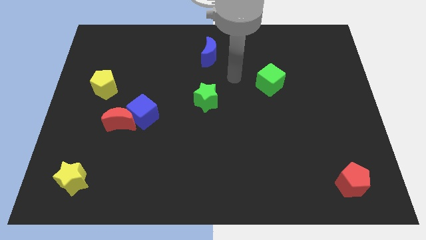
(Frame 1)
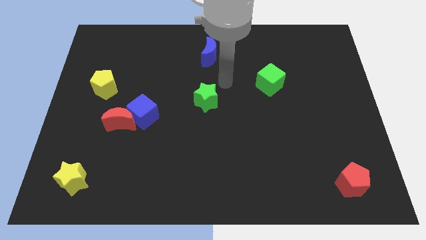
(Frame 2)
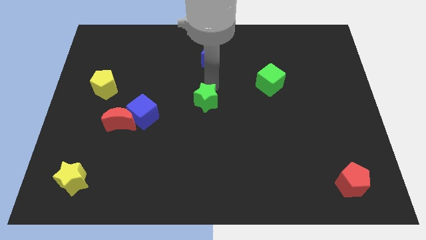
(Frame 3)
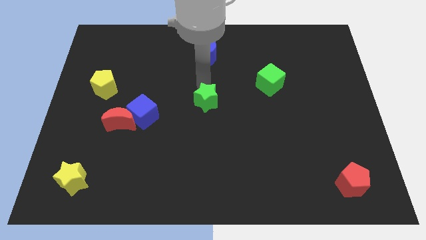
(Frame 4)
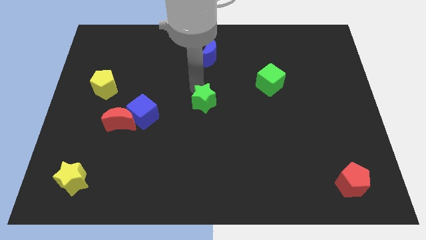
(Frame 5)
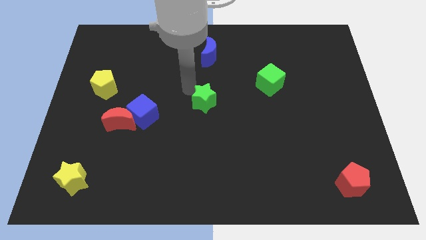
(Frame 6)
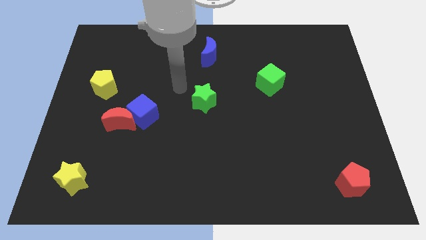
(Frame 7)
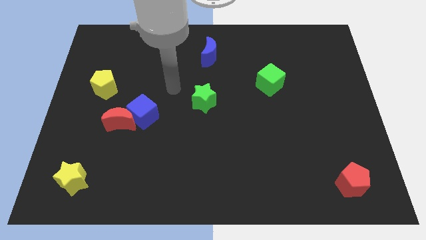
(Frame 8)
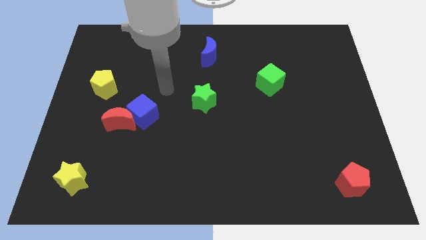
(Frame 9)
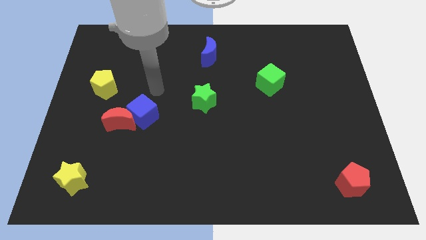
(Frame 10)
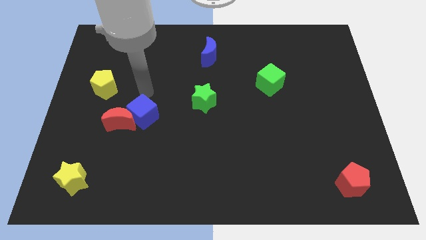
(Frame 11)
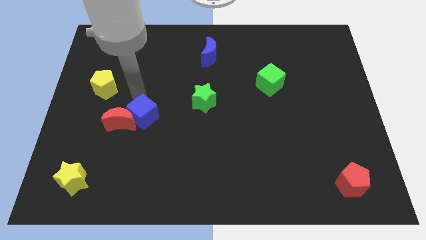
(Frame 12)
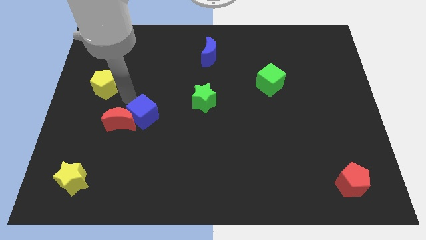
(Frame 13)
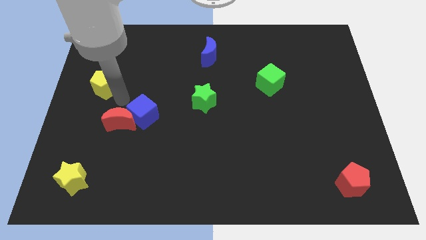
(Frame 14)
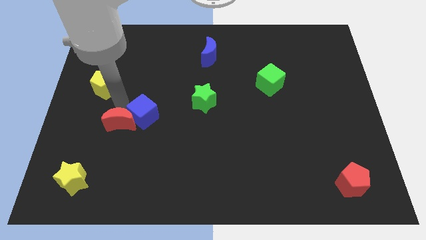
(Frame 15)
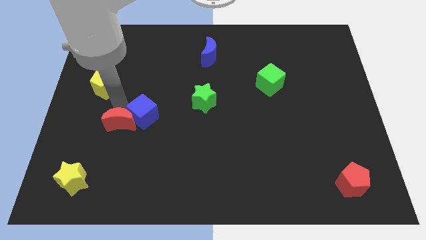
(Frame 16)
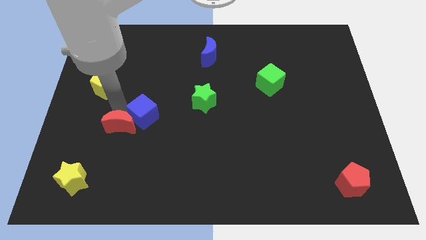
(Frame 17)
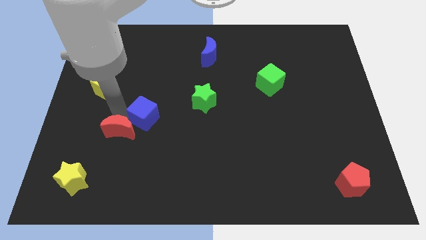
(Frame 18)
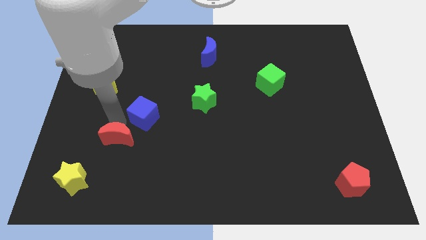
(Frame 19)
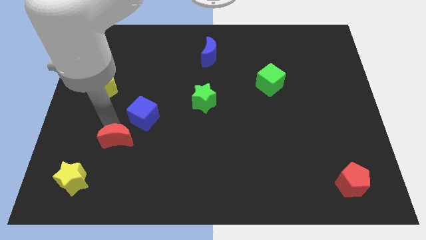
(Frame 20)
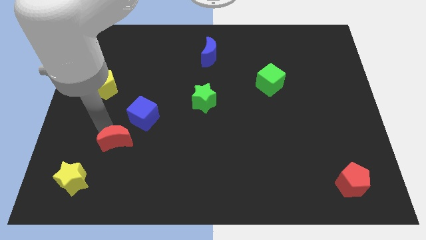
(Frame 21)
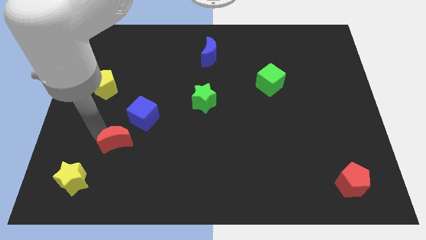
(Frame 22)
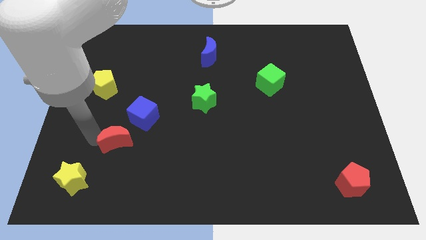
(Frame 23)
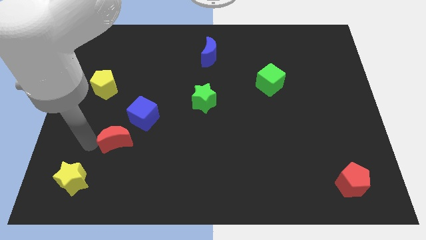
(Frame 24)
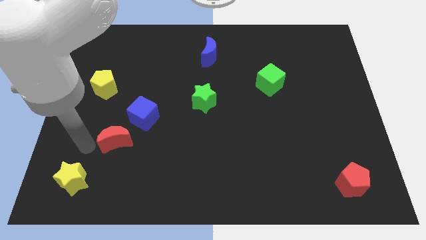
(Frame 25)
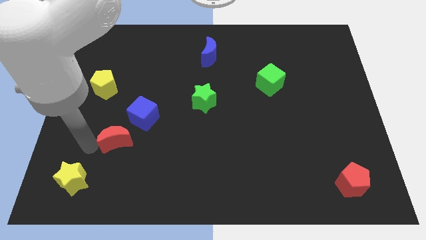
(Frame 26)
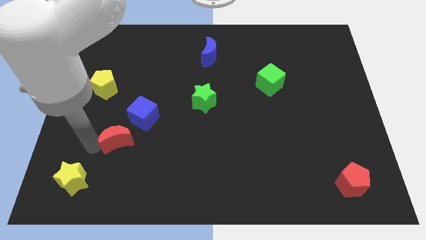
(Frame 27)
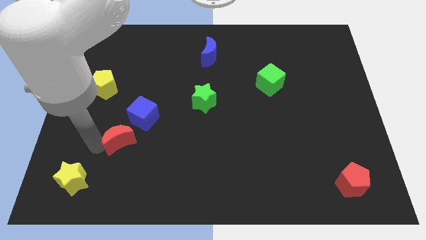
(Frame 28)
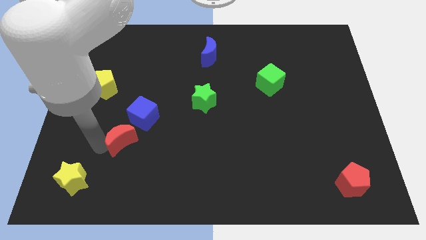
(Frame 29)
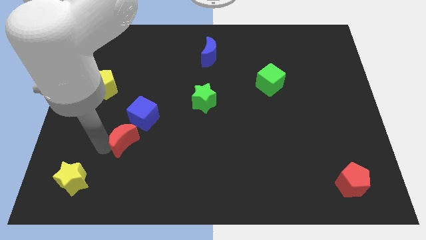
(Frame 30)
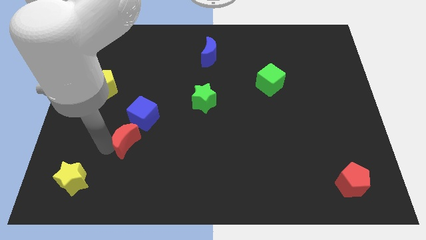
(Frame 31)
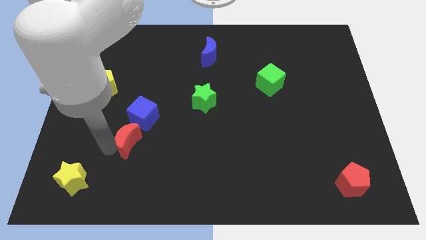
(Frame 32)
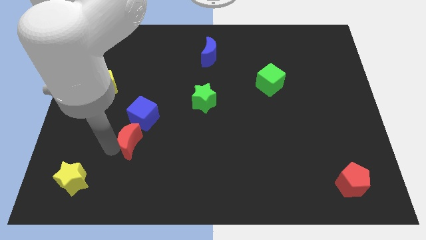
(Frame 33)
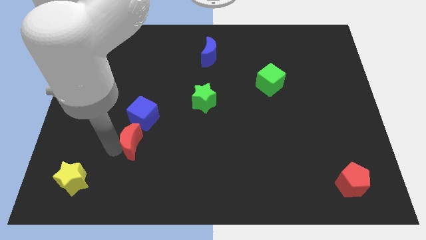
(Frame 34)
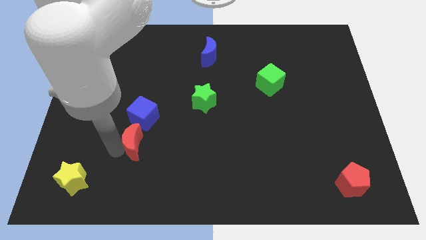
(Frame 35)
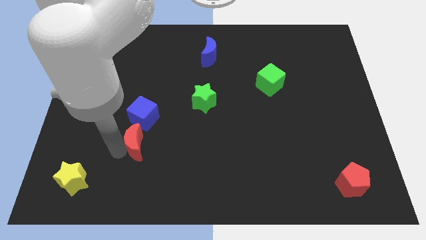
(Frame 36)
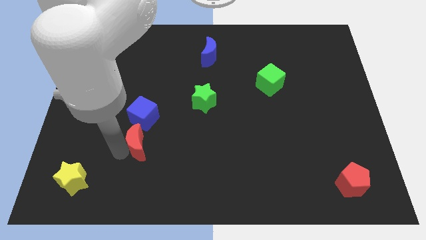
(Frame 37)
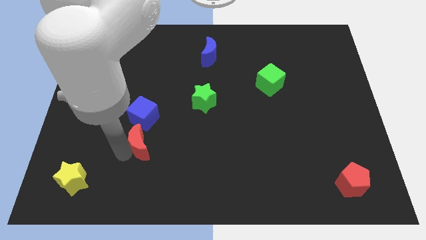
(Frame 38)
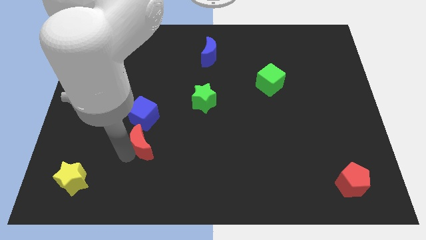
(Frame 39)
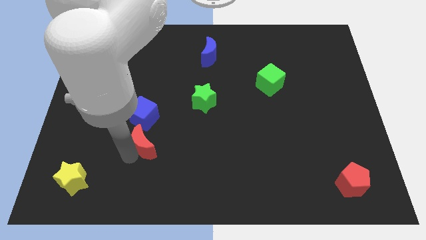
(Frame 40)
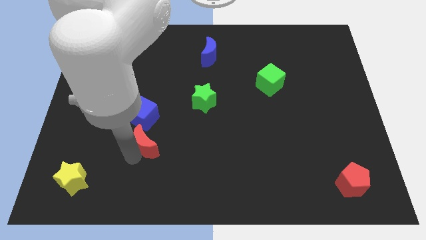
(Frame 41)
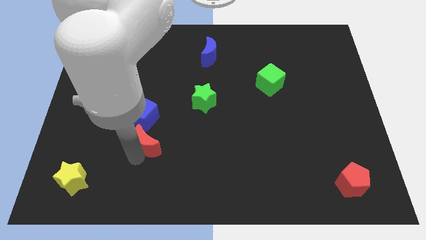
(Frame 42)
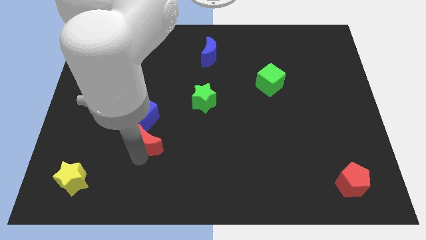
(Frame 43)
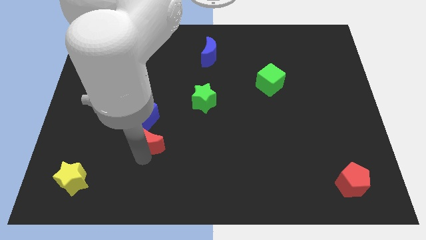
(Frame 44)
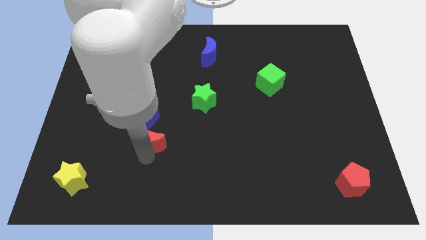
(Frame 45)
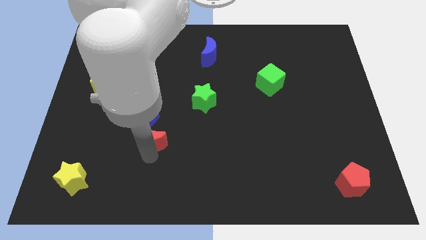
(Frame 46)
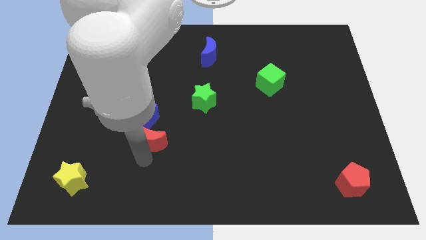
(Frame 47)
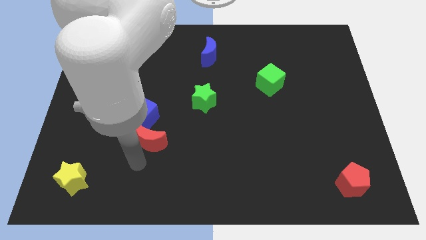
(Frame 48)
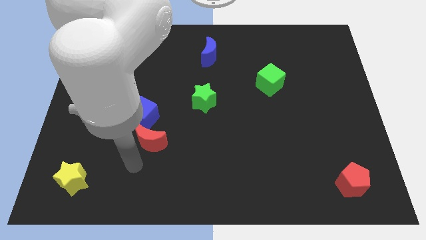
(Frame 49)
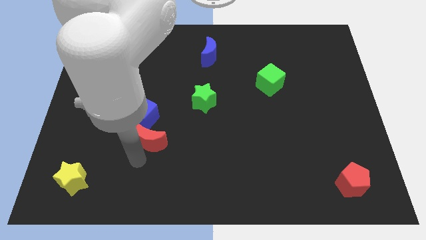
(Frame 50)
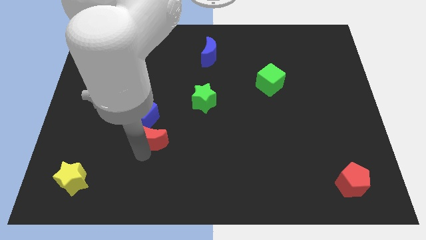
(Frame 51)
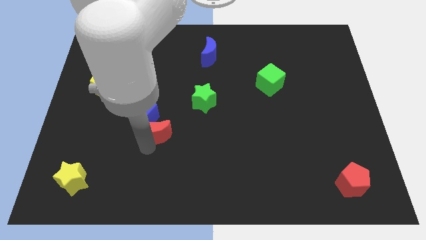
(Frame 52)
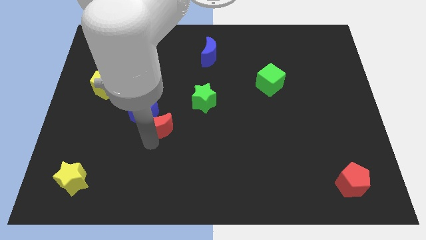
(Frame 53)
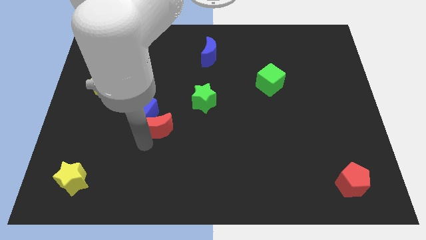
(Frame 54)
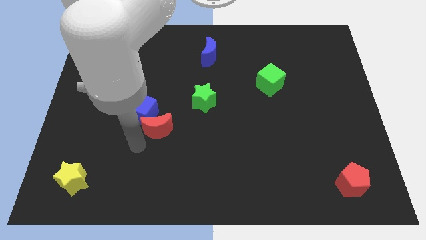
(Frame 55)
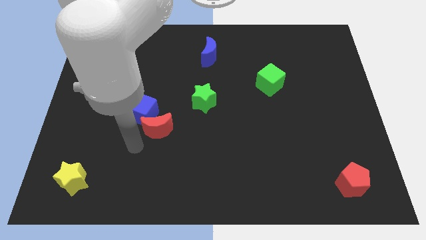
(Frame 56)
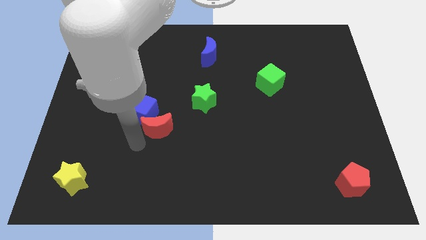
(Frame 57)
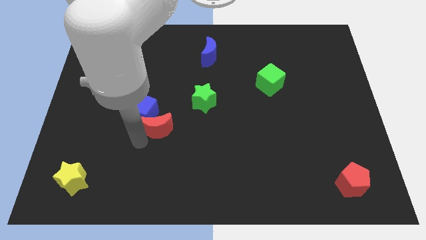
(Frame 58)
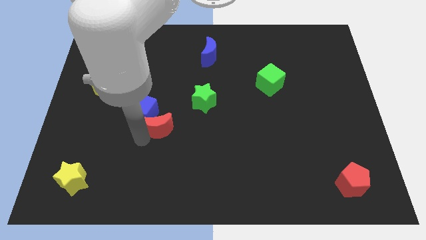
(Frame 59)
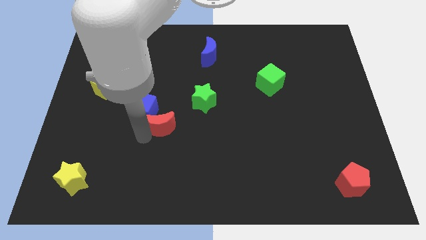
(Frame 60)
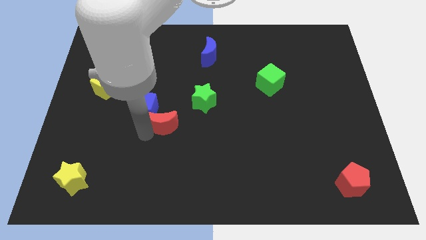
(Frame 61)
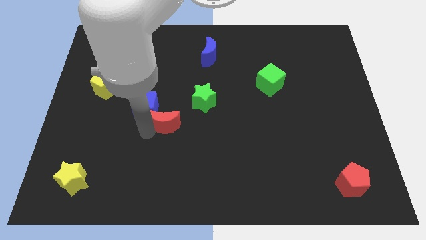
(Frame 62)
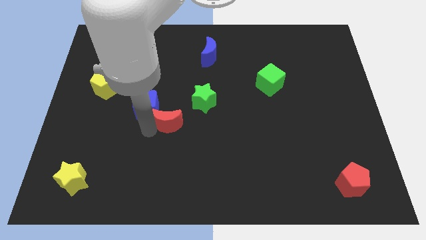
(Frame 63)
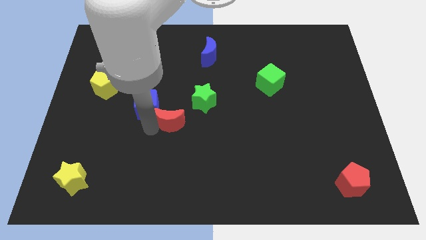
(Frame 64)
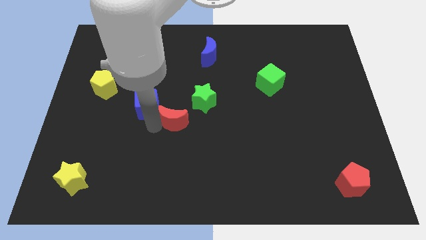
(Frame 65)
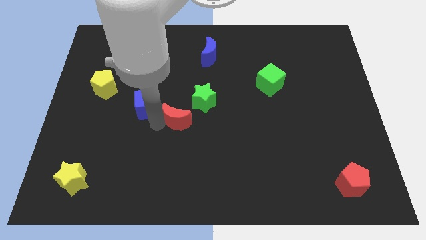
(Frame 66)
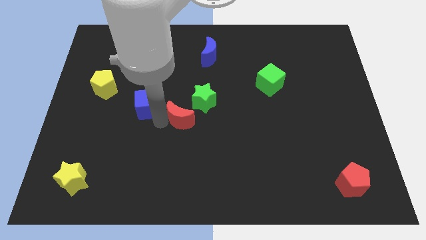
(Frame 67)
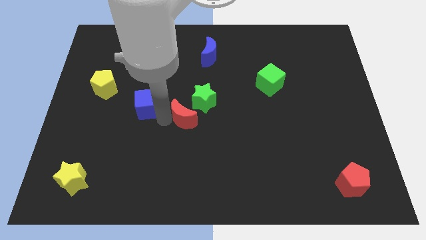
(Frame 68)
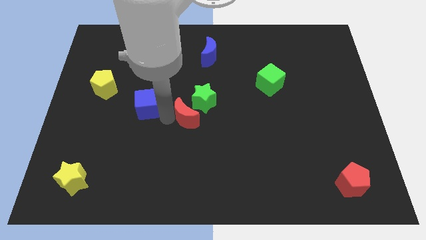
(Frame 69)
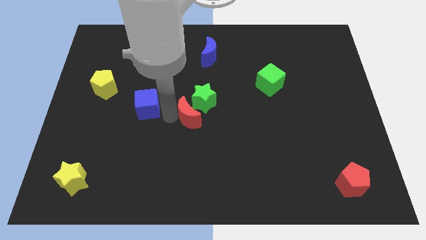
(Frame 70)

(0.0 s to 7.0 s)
push the red moon towards the green star
